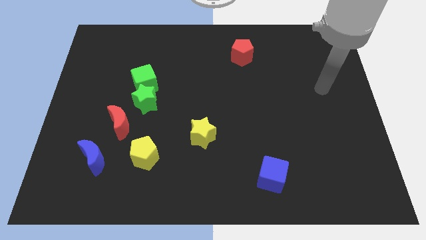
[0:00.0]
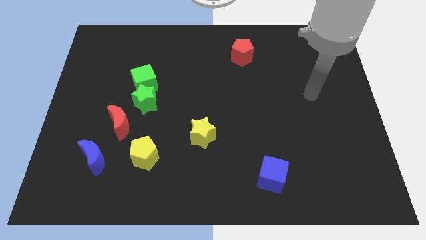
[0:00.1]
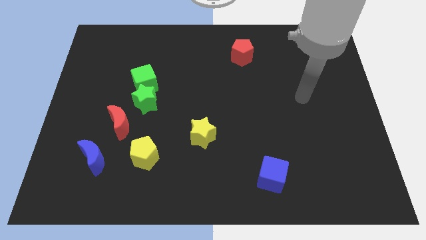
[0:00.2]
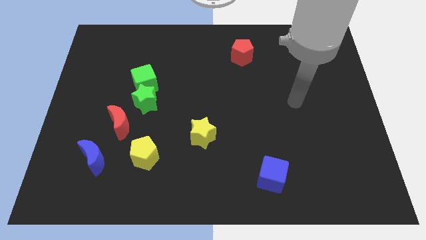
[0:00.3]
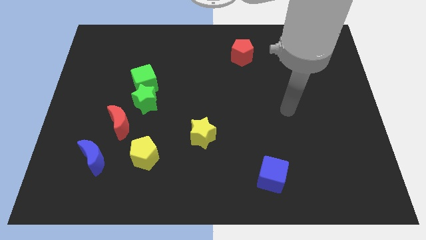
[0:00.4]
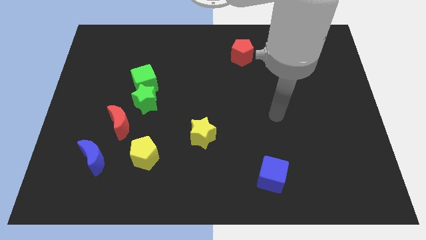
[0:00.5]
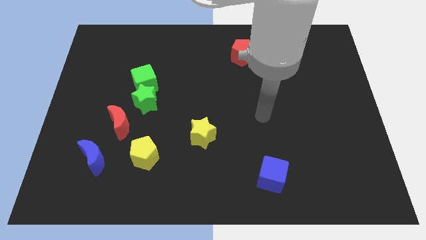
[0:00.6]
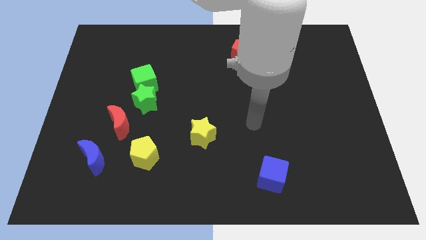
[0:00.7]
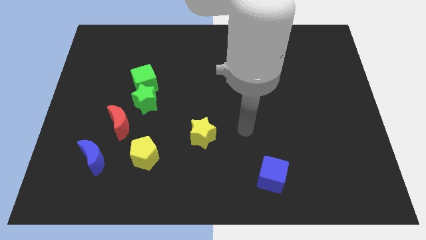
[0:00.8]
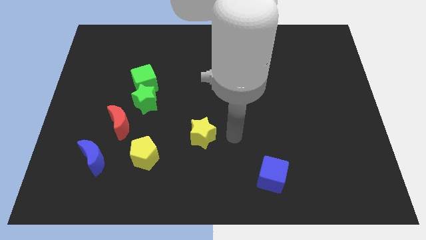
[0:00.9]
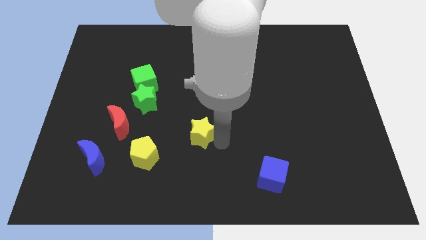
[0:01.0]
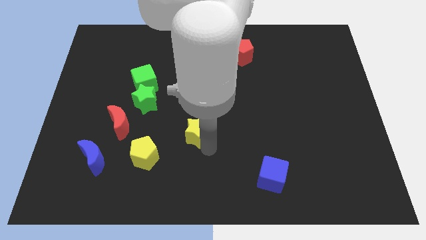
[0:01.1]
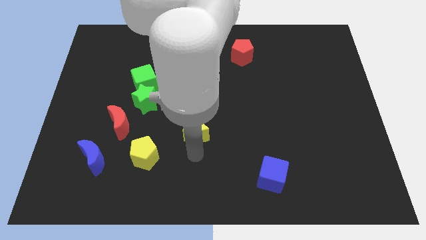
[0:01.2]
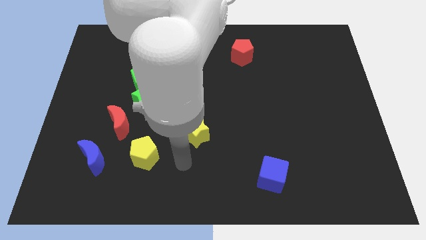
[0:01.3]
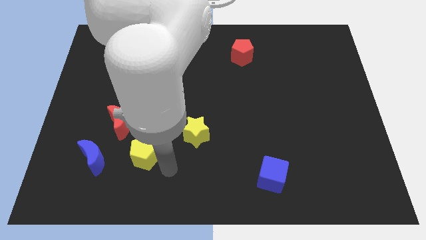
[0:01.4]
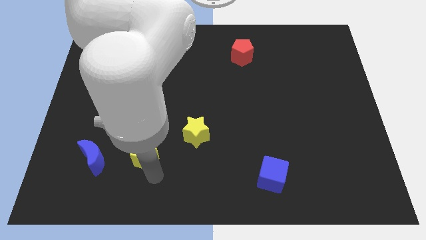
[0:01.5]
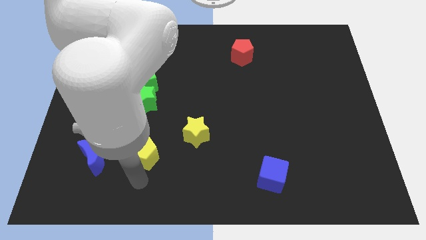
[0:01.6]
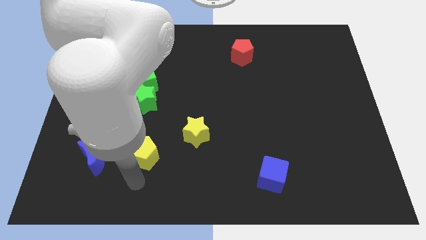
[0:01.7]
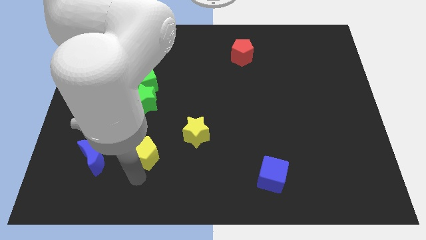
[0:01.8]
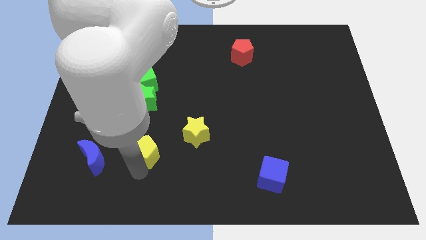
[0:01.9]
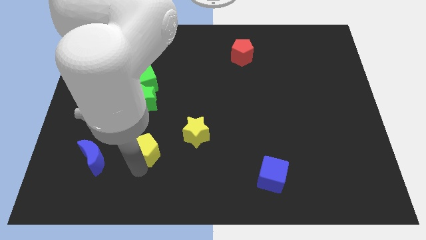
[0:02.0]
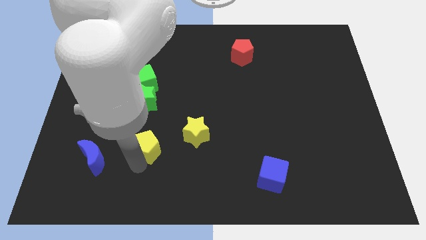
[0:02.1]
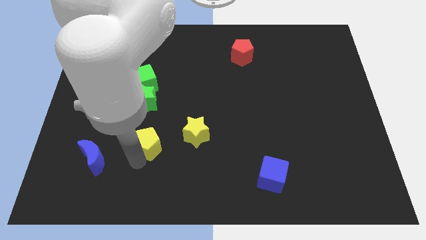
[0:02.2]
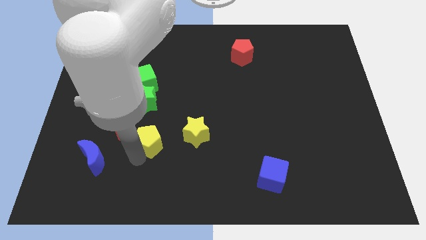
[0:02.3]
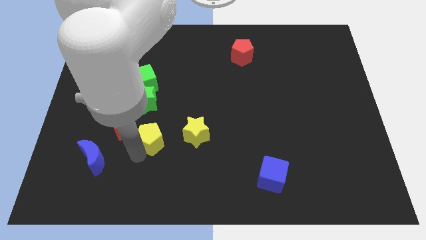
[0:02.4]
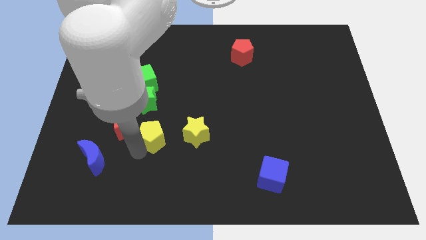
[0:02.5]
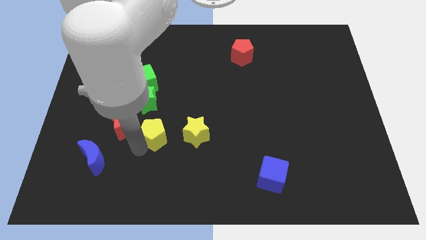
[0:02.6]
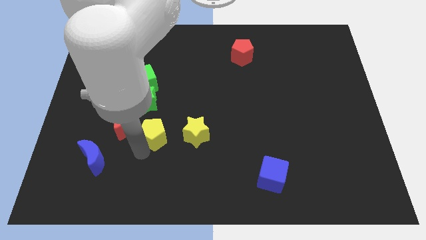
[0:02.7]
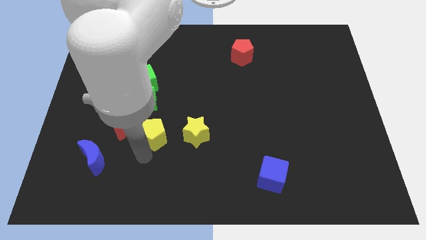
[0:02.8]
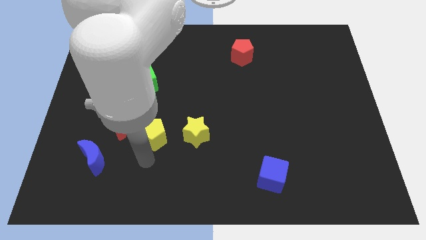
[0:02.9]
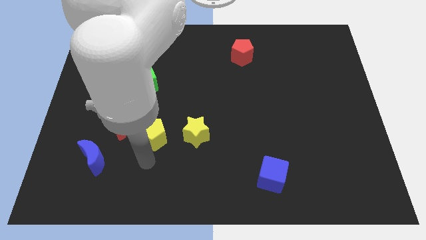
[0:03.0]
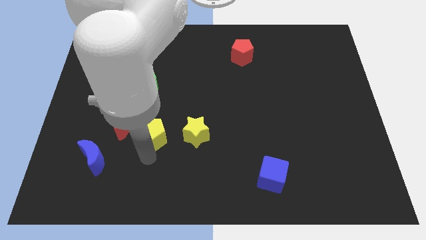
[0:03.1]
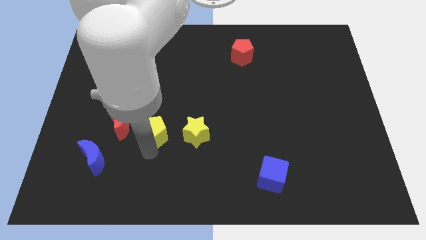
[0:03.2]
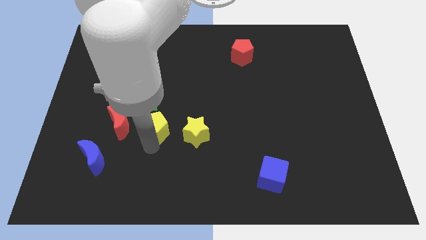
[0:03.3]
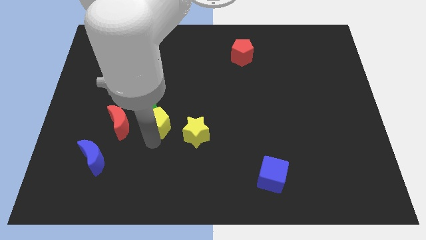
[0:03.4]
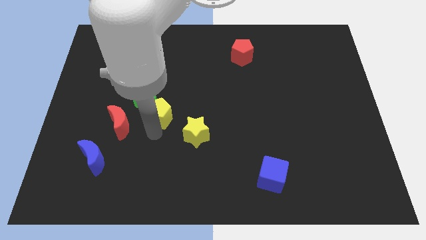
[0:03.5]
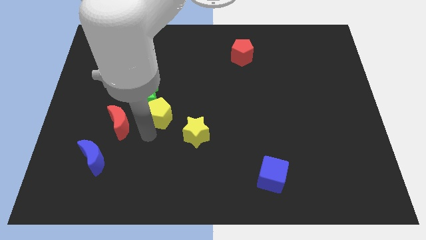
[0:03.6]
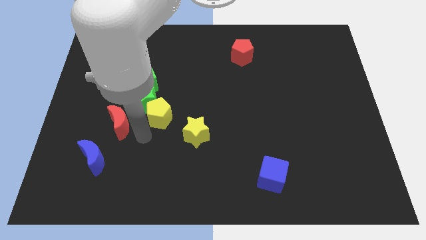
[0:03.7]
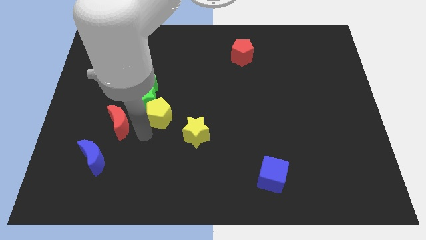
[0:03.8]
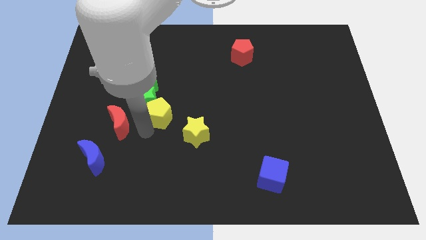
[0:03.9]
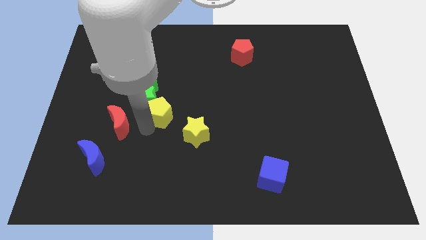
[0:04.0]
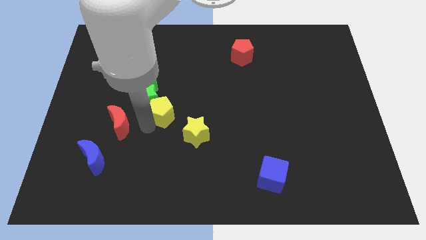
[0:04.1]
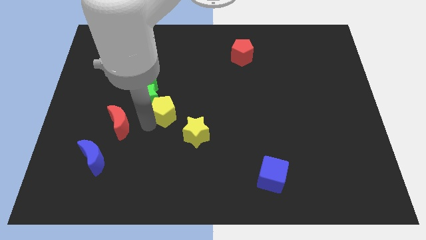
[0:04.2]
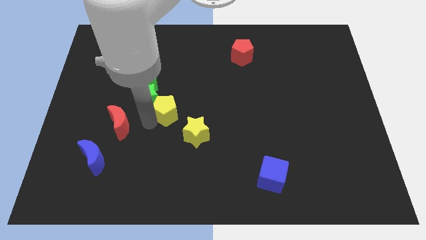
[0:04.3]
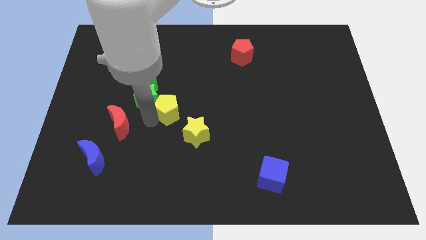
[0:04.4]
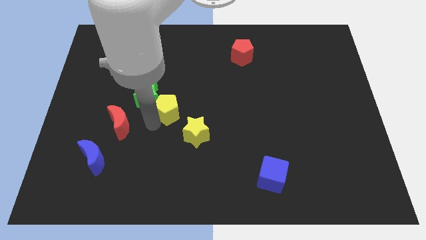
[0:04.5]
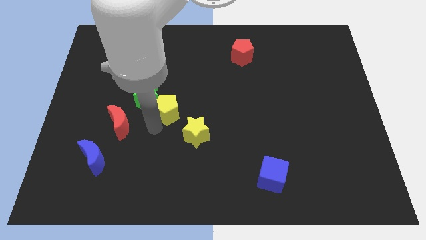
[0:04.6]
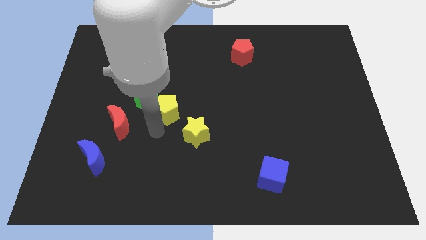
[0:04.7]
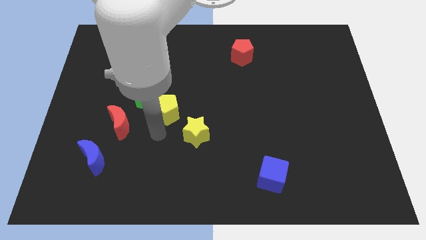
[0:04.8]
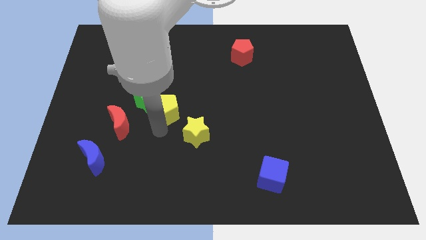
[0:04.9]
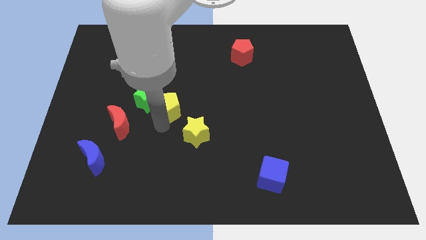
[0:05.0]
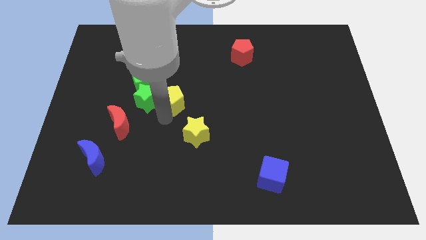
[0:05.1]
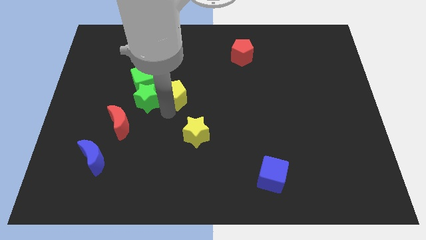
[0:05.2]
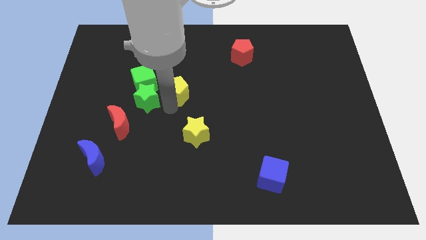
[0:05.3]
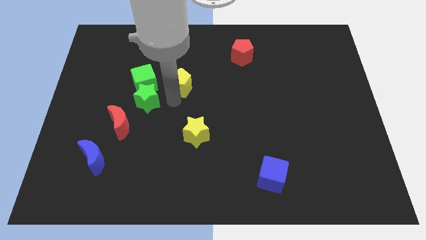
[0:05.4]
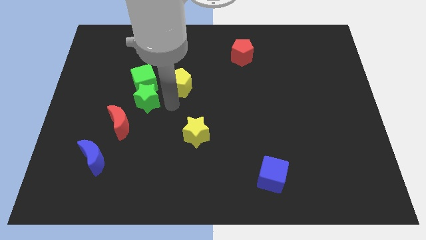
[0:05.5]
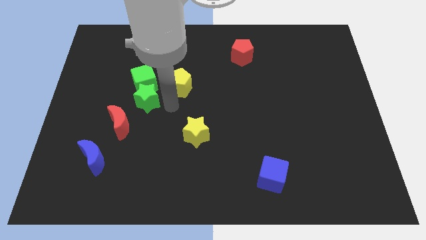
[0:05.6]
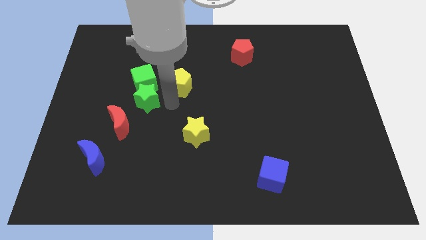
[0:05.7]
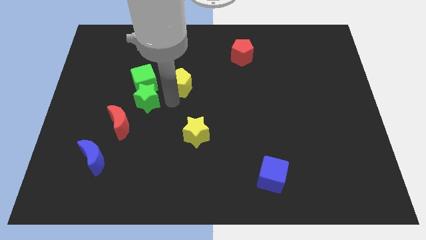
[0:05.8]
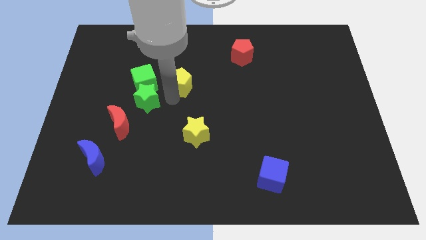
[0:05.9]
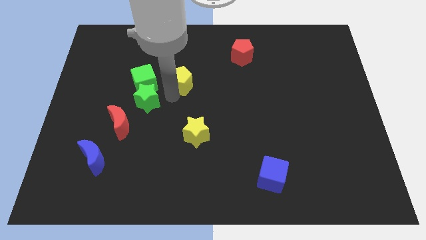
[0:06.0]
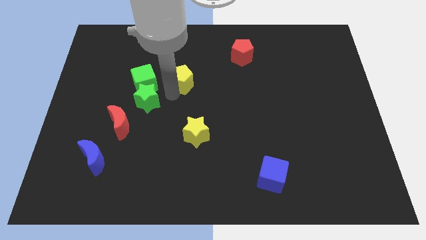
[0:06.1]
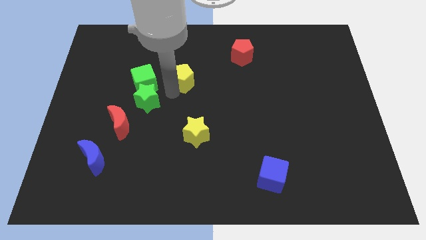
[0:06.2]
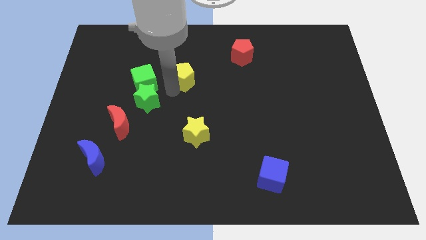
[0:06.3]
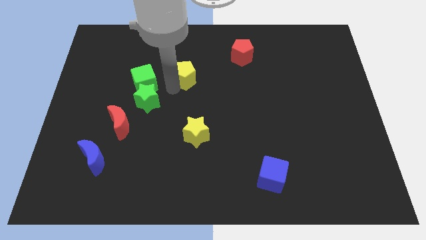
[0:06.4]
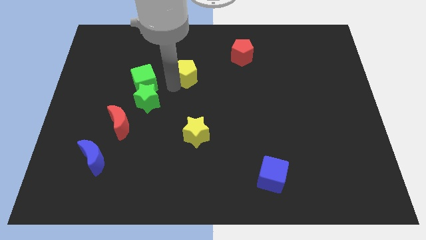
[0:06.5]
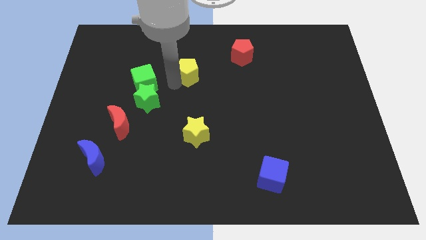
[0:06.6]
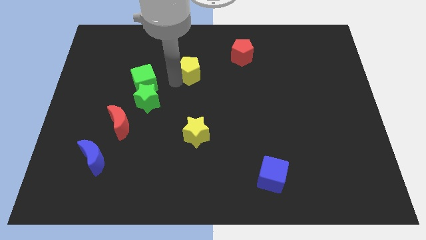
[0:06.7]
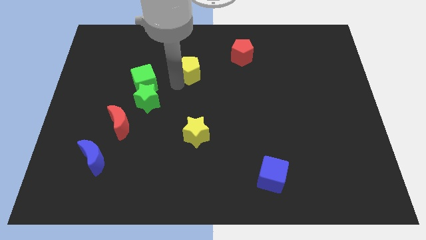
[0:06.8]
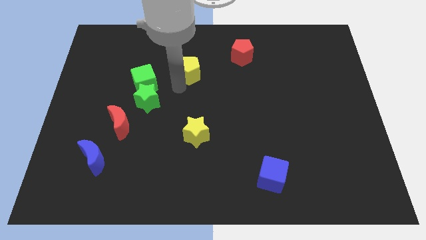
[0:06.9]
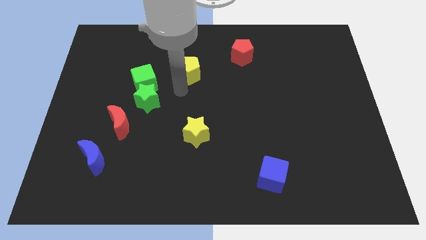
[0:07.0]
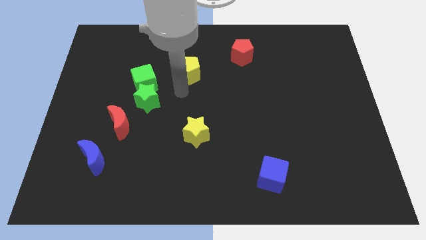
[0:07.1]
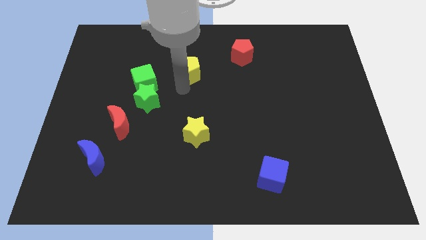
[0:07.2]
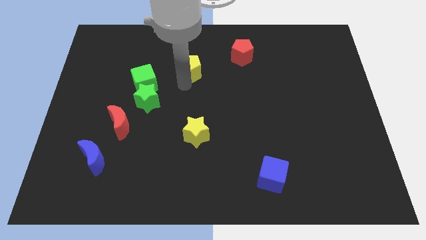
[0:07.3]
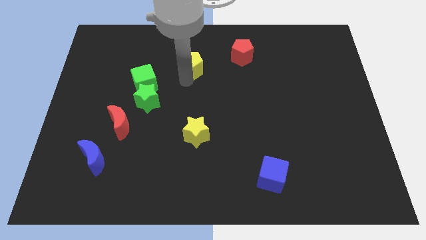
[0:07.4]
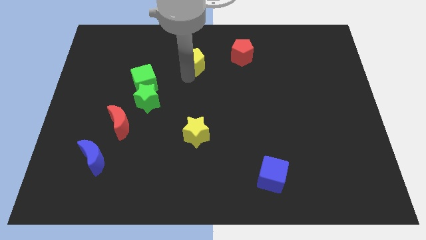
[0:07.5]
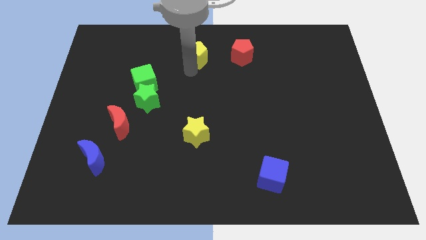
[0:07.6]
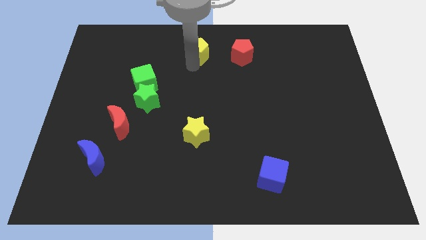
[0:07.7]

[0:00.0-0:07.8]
put the yellow pentagon to the top
